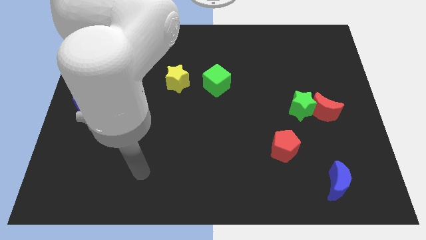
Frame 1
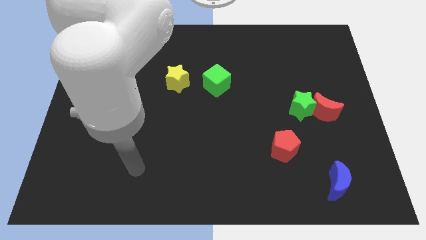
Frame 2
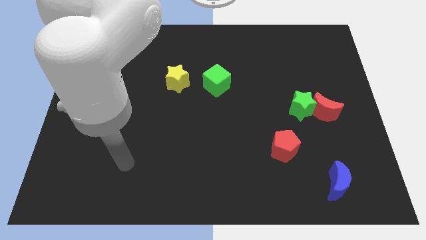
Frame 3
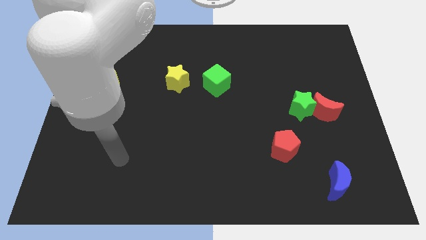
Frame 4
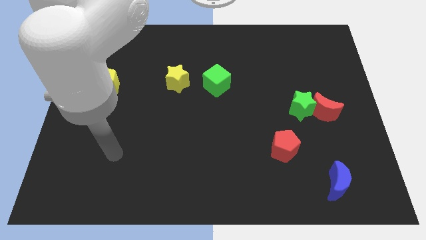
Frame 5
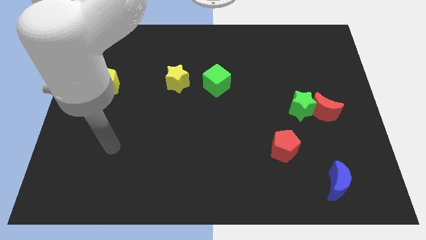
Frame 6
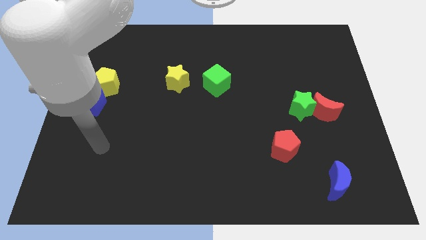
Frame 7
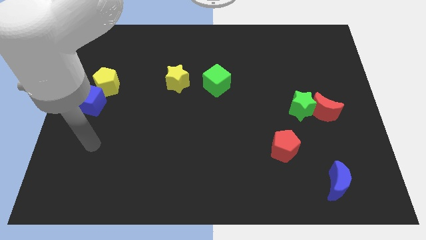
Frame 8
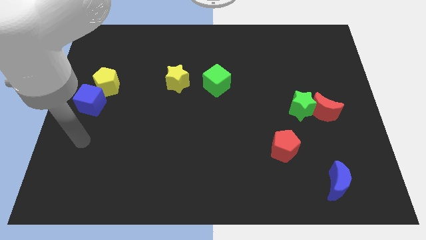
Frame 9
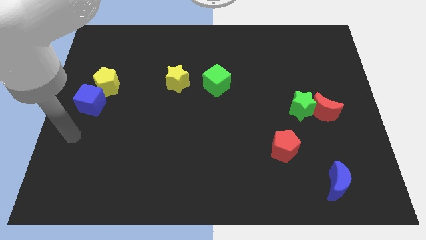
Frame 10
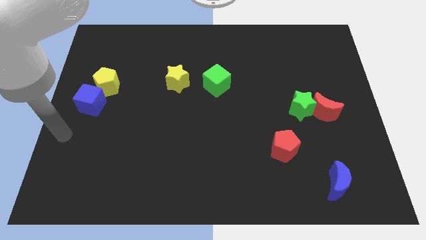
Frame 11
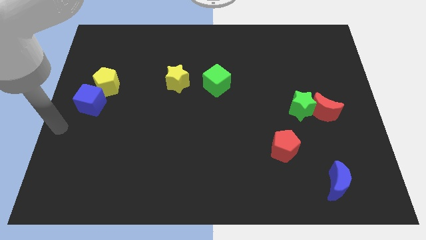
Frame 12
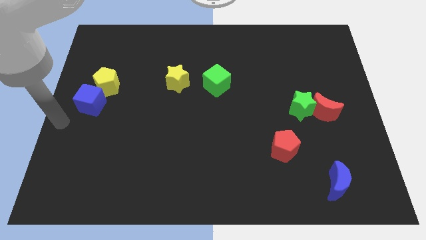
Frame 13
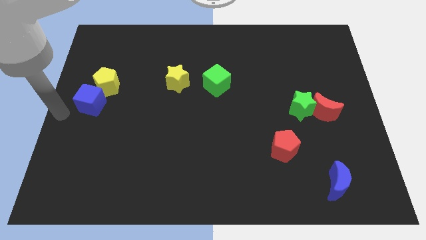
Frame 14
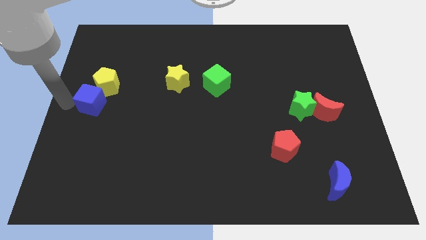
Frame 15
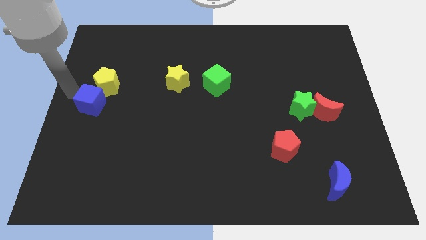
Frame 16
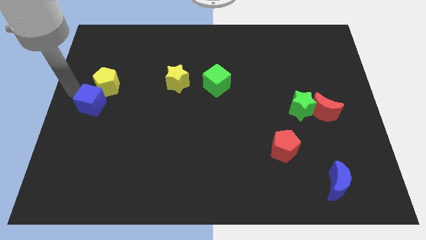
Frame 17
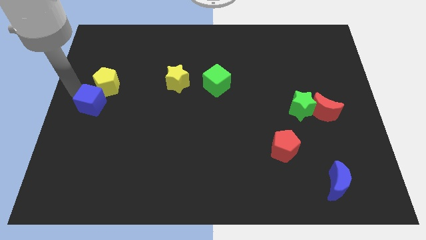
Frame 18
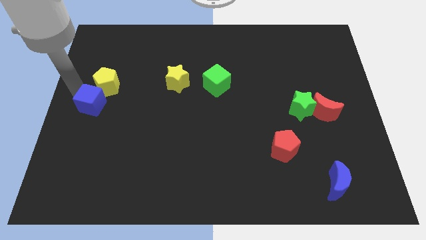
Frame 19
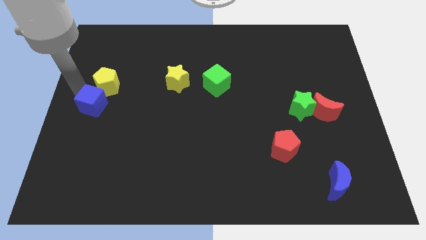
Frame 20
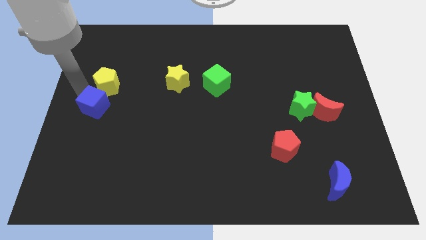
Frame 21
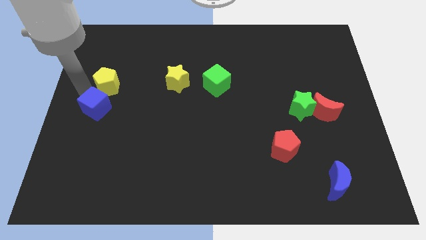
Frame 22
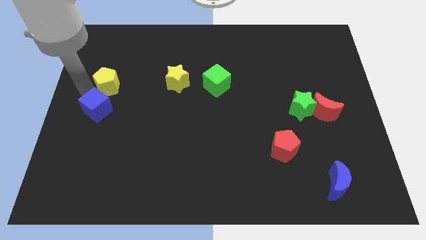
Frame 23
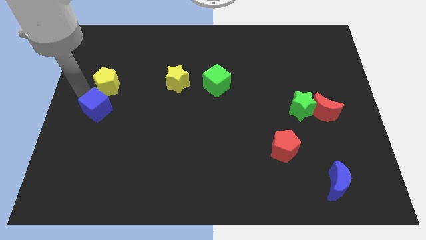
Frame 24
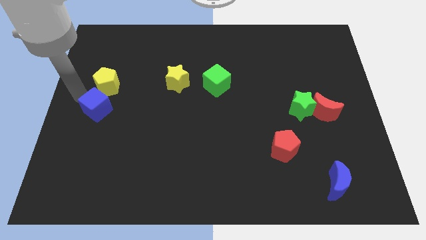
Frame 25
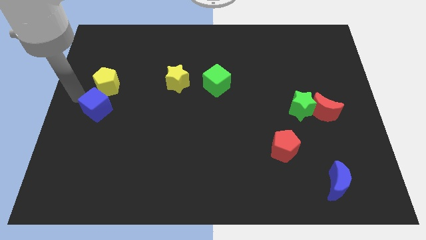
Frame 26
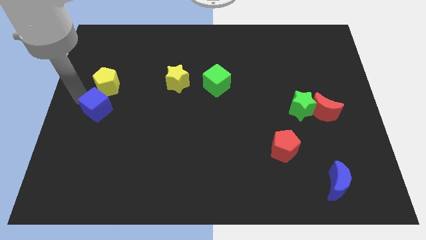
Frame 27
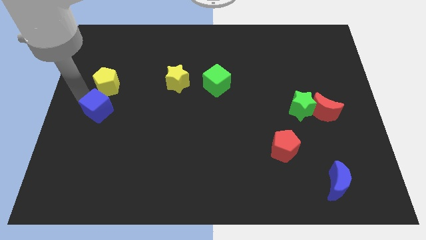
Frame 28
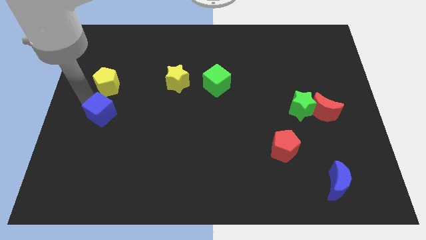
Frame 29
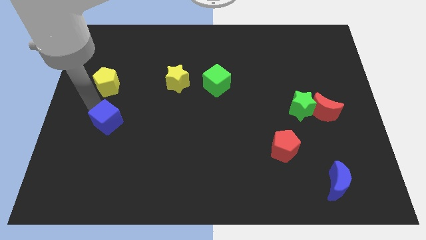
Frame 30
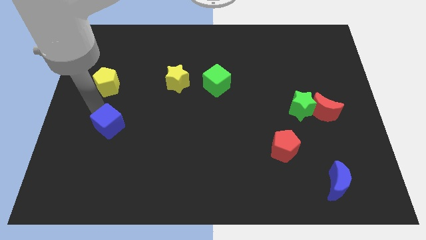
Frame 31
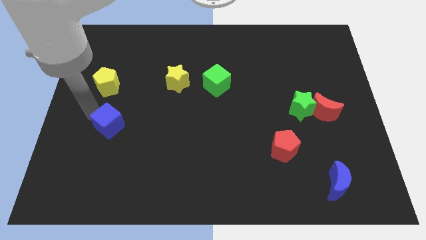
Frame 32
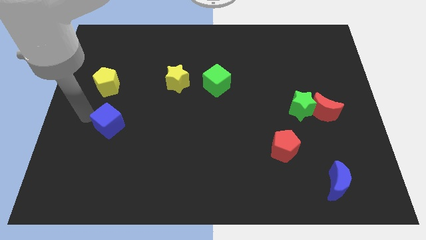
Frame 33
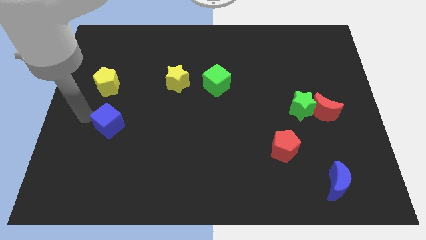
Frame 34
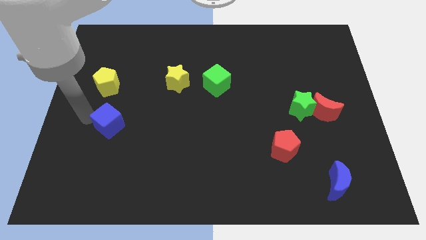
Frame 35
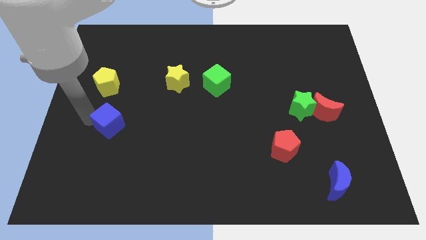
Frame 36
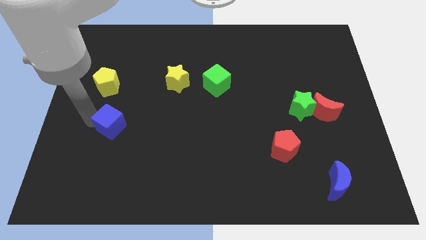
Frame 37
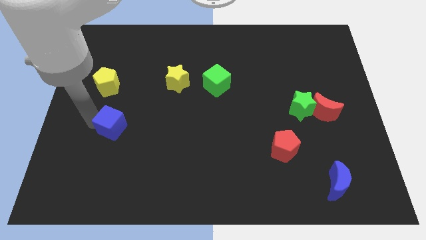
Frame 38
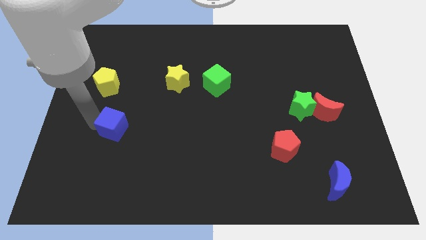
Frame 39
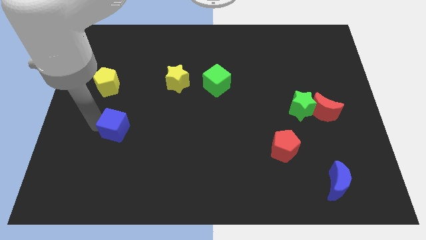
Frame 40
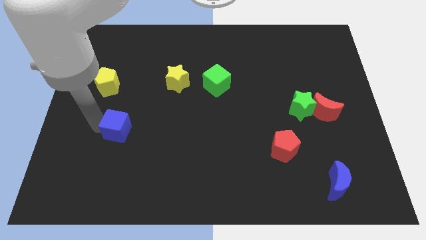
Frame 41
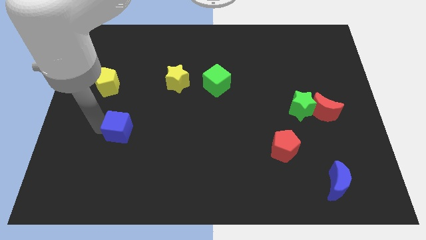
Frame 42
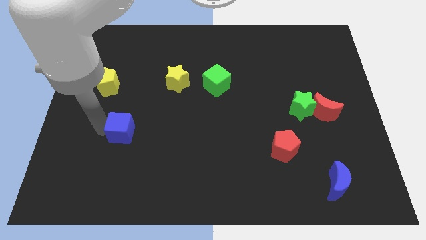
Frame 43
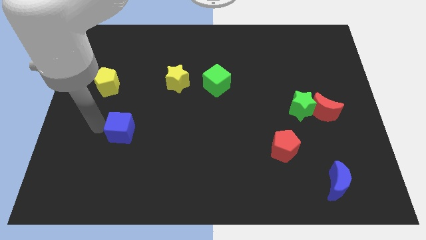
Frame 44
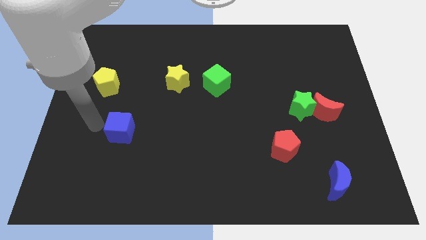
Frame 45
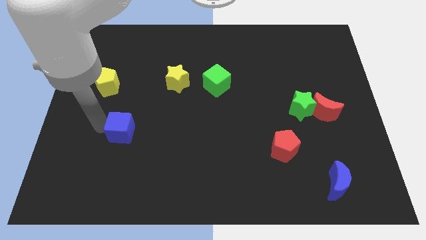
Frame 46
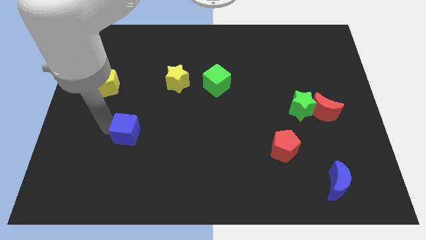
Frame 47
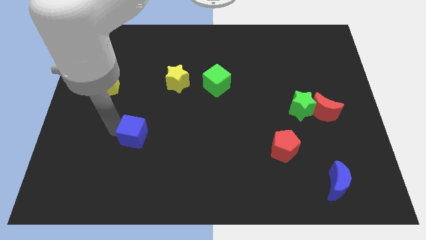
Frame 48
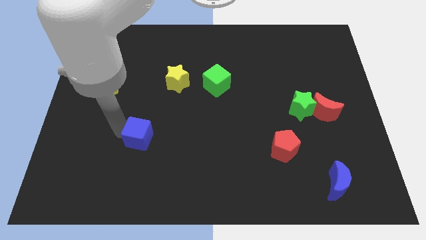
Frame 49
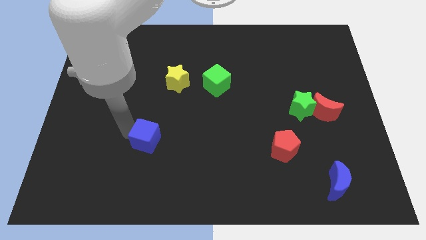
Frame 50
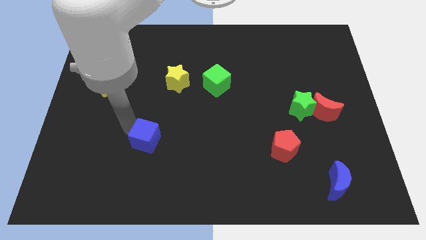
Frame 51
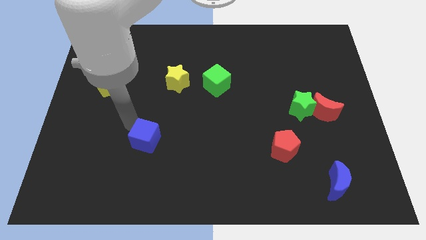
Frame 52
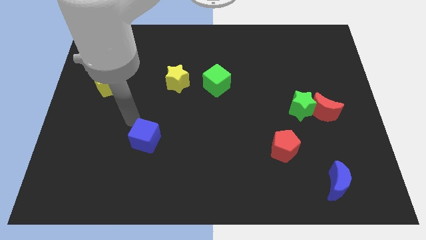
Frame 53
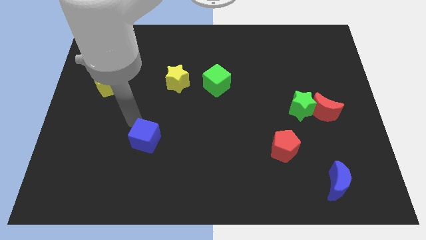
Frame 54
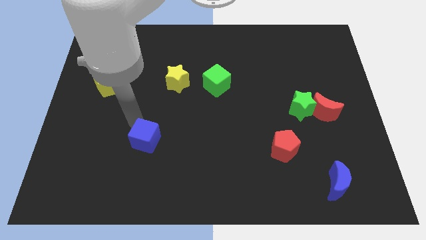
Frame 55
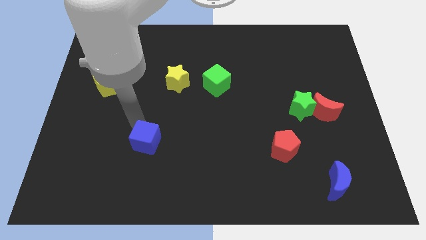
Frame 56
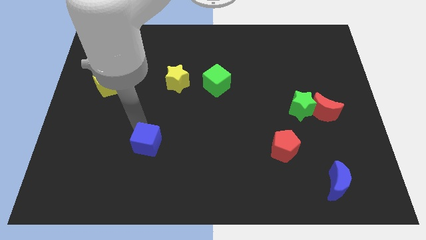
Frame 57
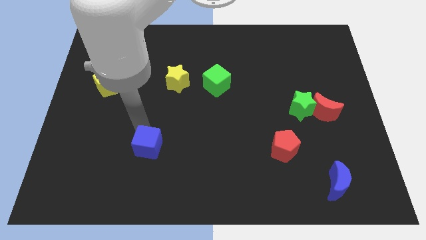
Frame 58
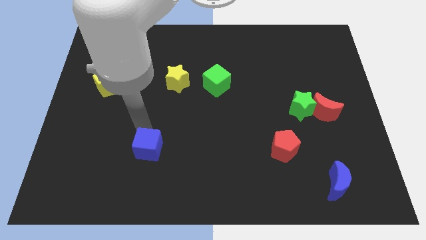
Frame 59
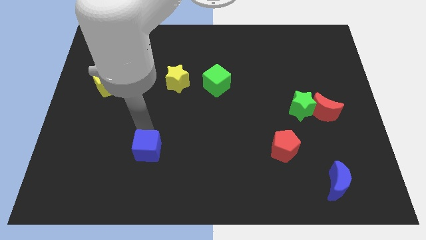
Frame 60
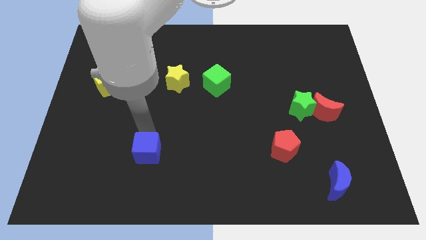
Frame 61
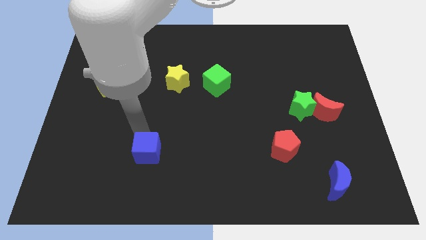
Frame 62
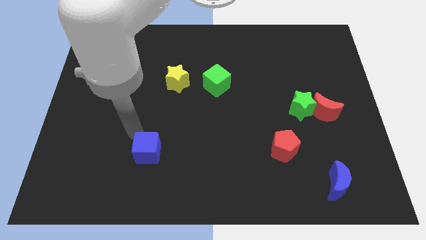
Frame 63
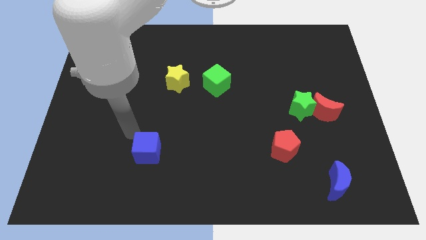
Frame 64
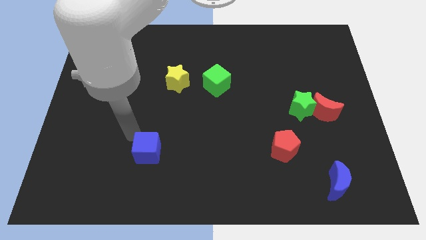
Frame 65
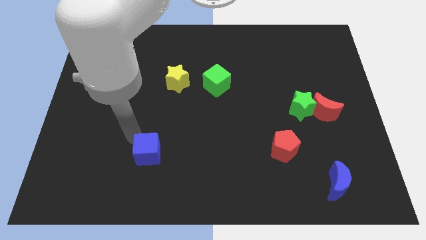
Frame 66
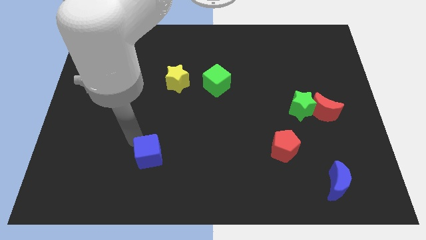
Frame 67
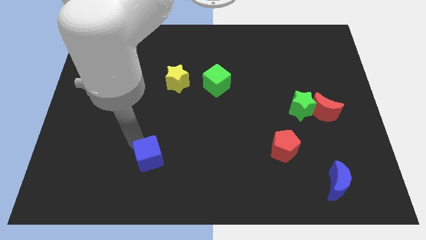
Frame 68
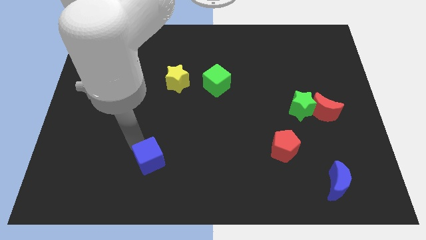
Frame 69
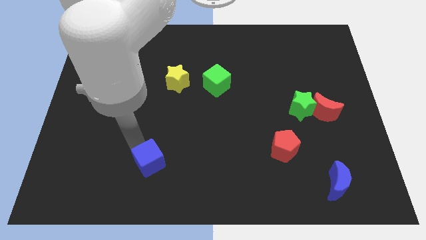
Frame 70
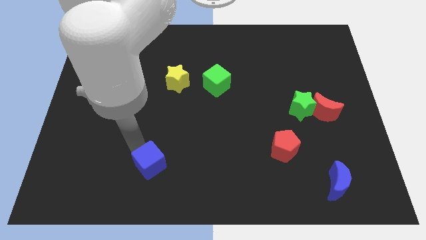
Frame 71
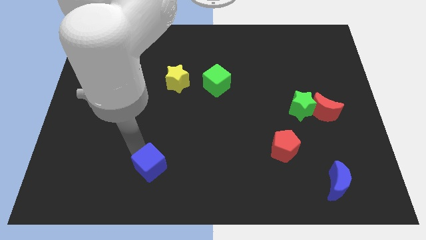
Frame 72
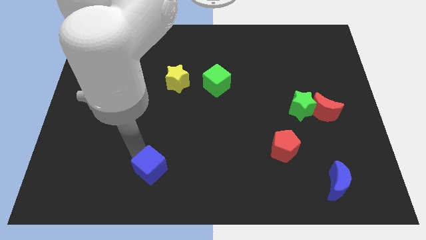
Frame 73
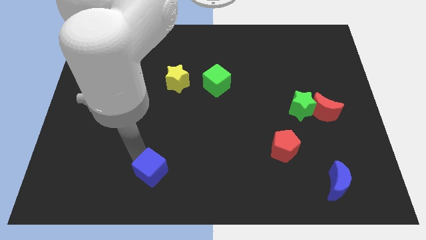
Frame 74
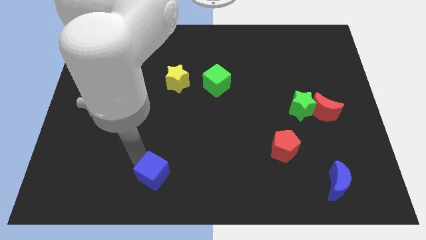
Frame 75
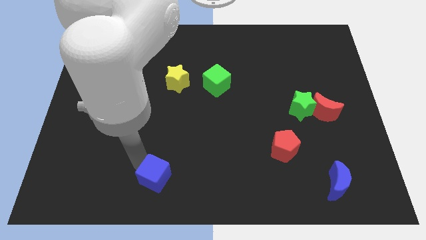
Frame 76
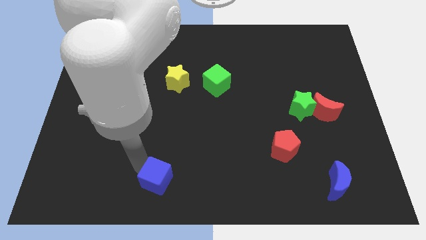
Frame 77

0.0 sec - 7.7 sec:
push the blue cube to the bottom side
